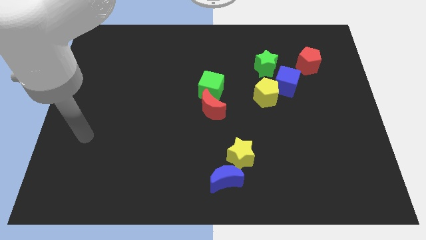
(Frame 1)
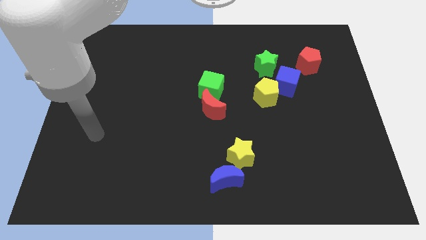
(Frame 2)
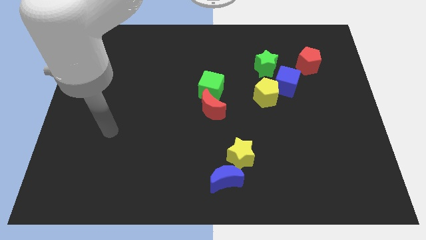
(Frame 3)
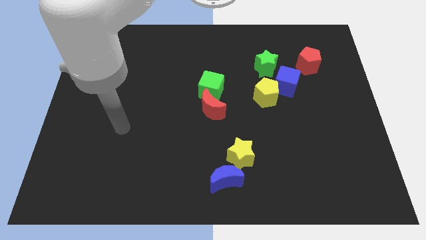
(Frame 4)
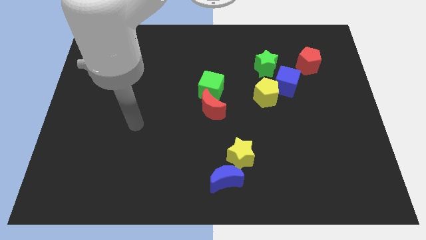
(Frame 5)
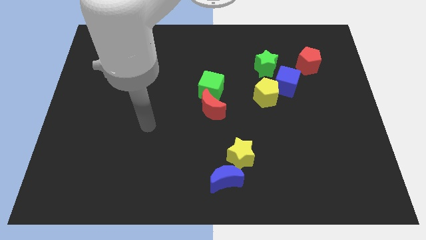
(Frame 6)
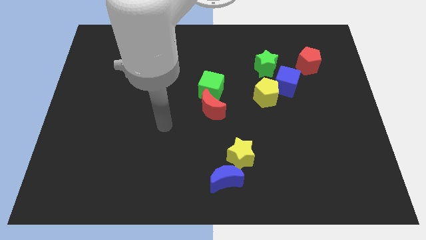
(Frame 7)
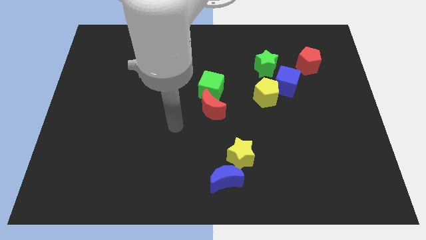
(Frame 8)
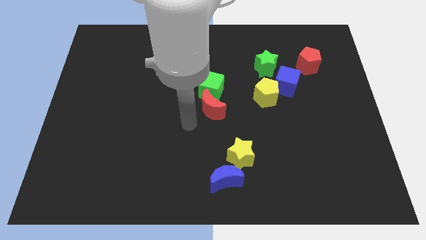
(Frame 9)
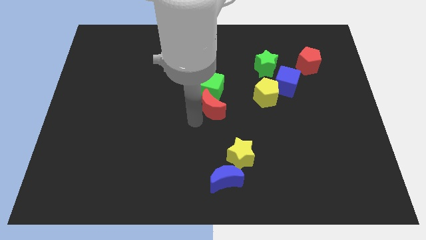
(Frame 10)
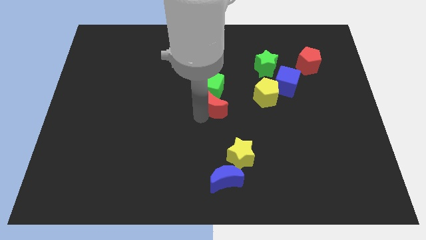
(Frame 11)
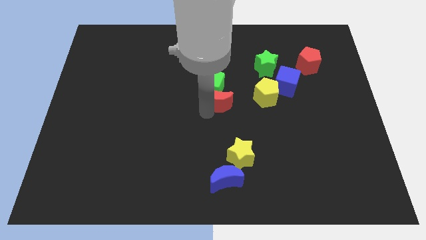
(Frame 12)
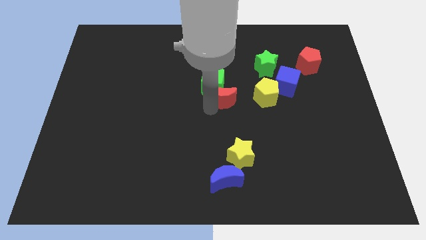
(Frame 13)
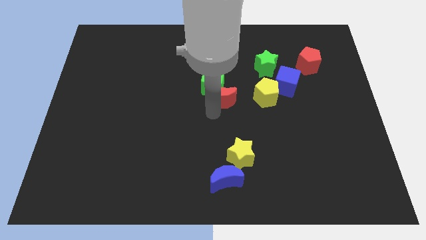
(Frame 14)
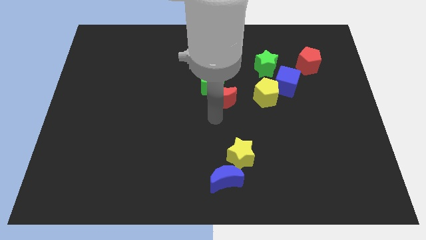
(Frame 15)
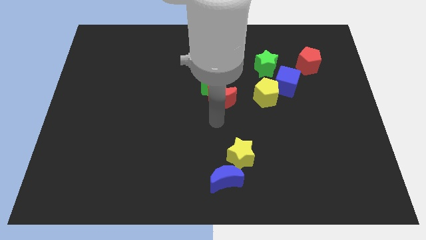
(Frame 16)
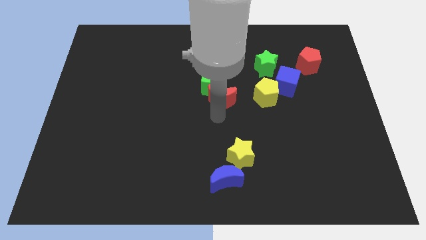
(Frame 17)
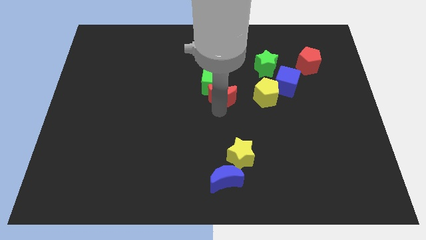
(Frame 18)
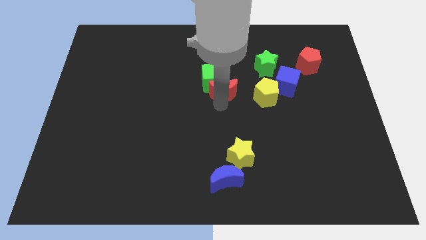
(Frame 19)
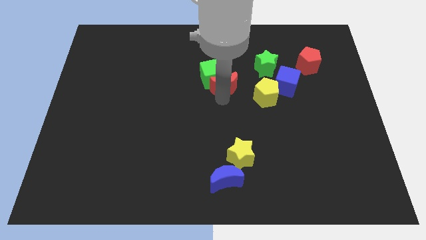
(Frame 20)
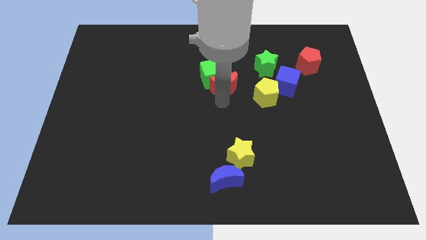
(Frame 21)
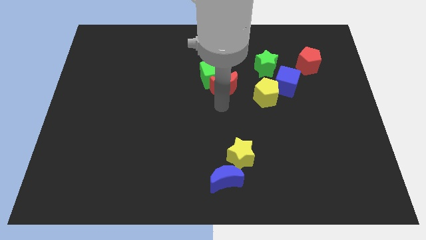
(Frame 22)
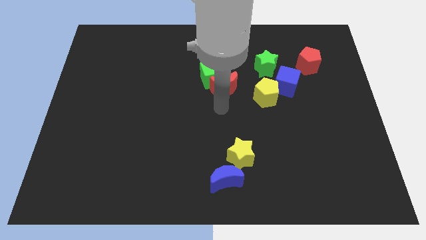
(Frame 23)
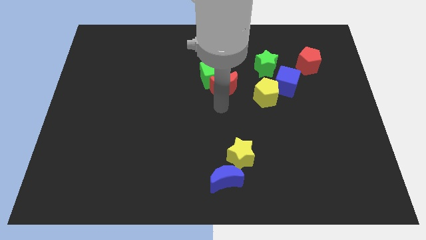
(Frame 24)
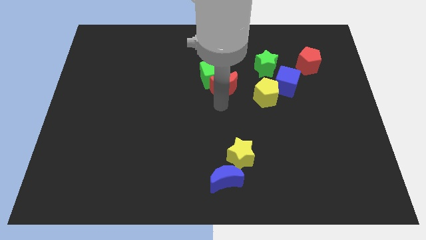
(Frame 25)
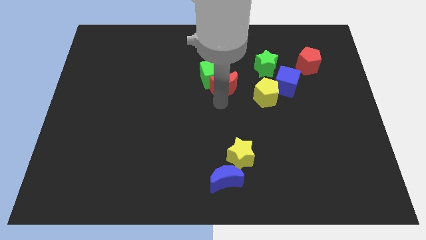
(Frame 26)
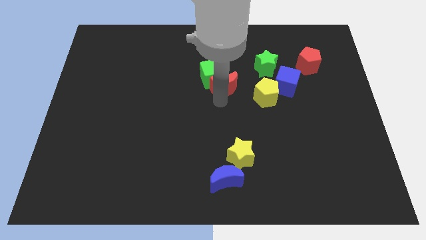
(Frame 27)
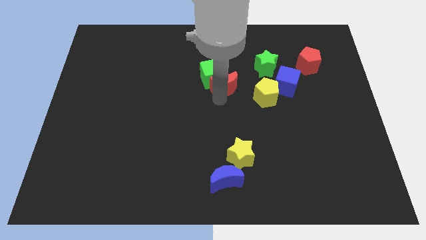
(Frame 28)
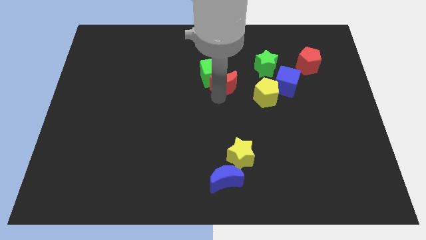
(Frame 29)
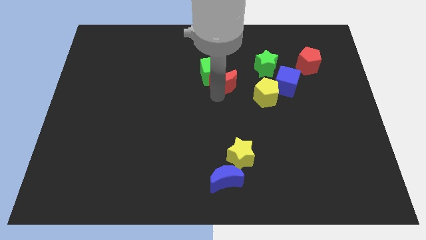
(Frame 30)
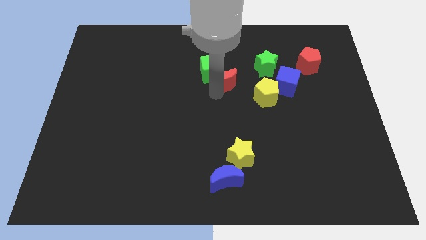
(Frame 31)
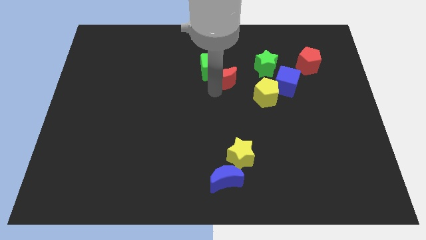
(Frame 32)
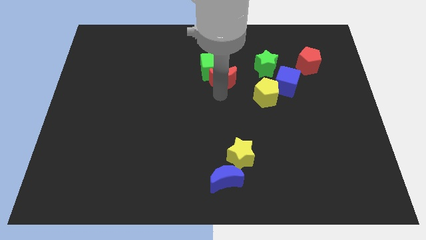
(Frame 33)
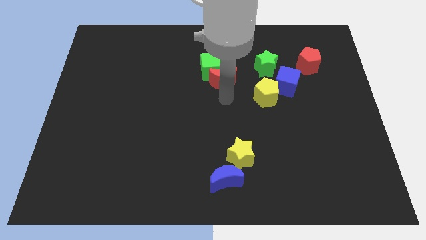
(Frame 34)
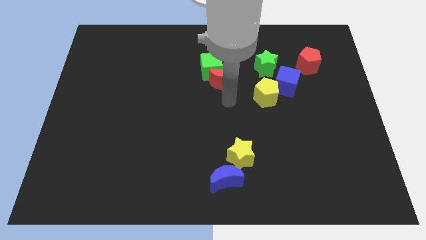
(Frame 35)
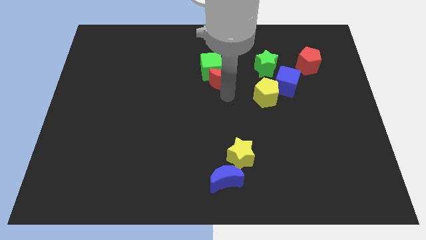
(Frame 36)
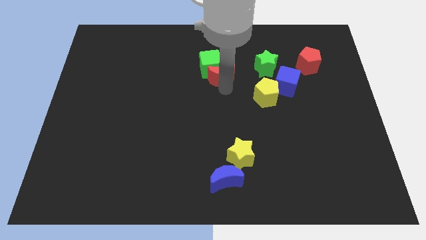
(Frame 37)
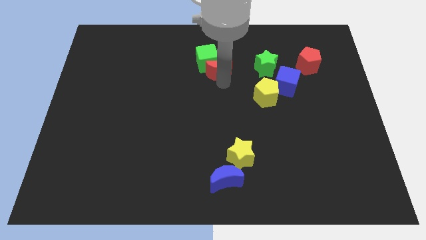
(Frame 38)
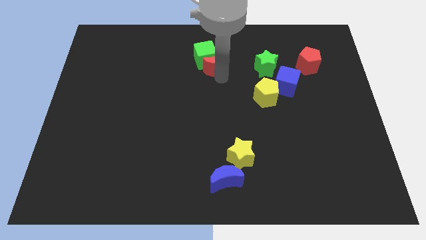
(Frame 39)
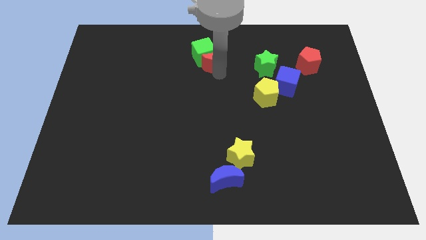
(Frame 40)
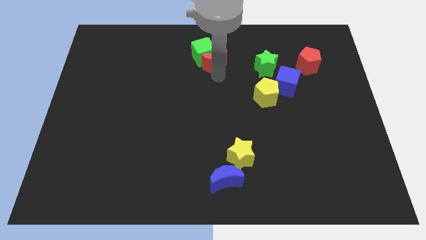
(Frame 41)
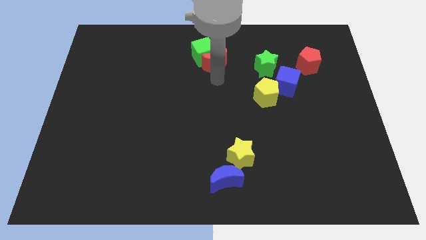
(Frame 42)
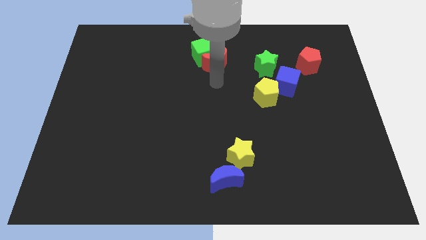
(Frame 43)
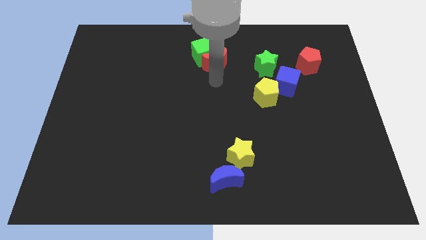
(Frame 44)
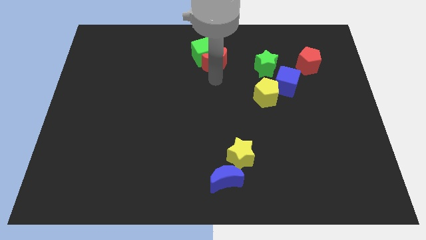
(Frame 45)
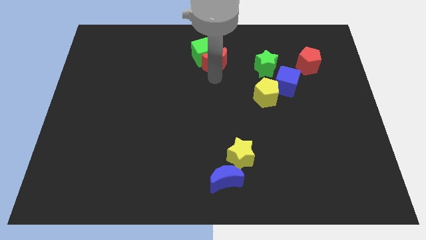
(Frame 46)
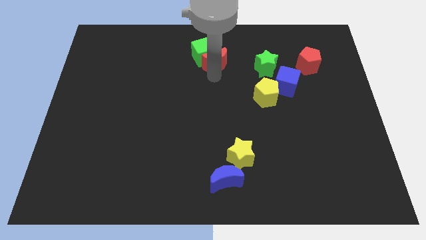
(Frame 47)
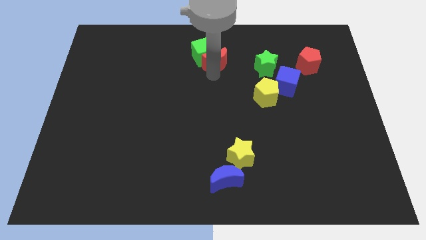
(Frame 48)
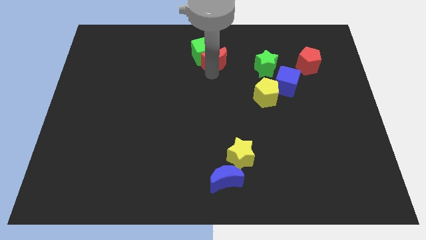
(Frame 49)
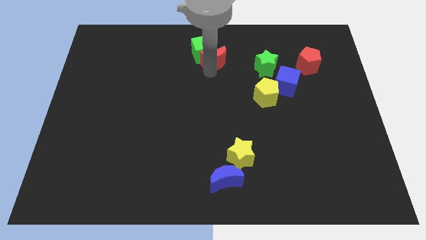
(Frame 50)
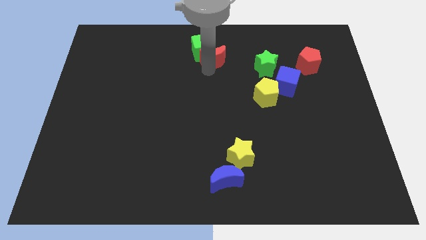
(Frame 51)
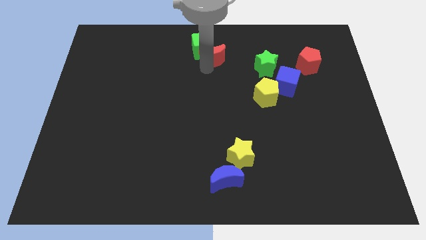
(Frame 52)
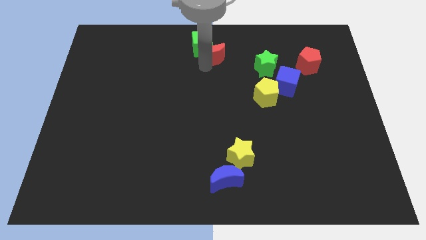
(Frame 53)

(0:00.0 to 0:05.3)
move the red moon to the towards your base

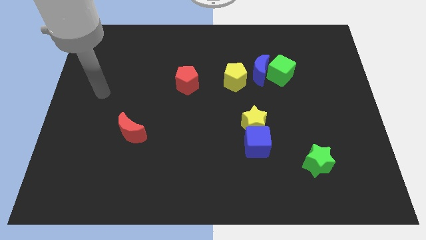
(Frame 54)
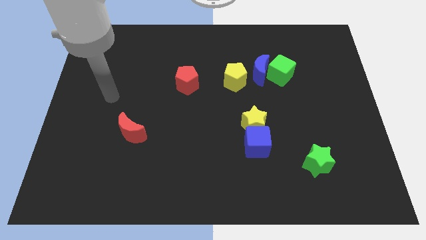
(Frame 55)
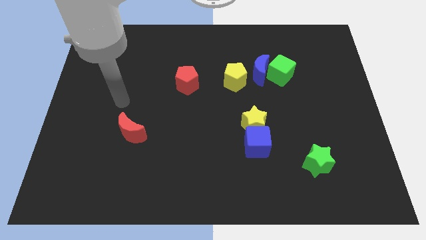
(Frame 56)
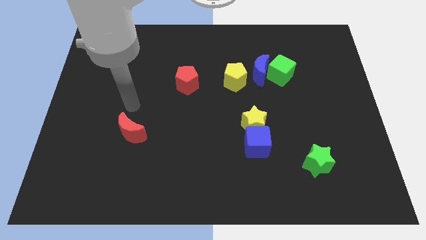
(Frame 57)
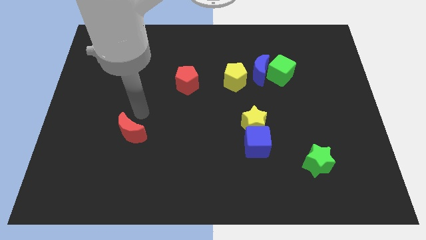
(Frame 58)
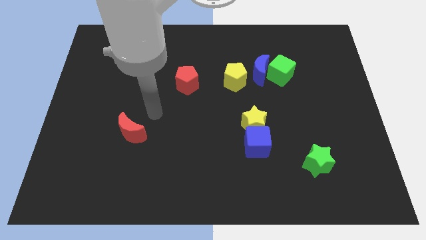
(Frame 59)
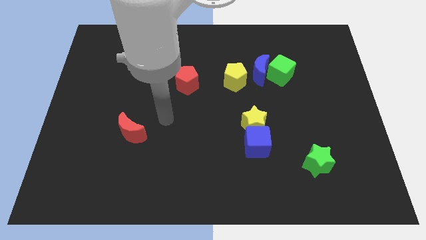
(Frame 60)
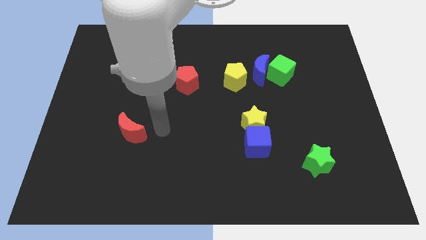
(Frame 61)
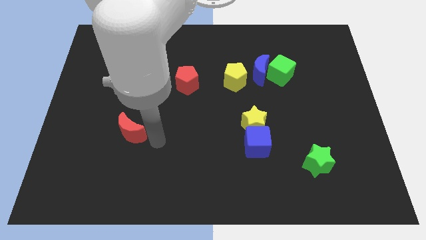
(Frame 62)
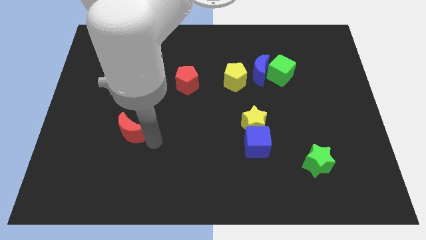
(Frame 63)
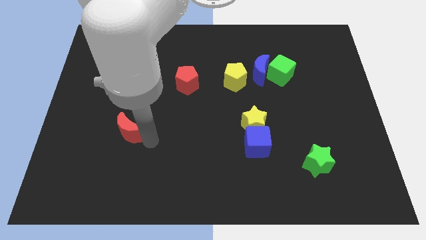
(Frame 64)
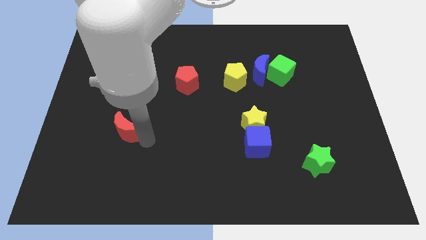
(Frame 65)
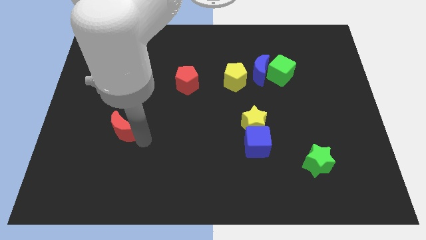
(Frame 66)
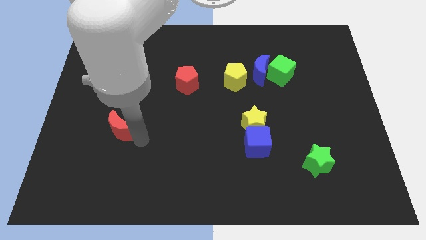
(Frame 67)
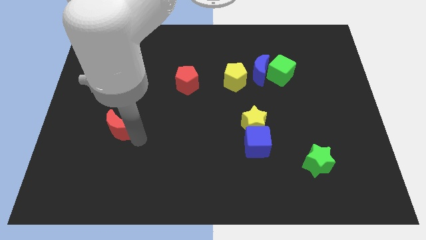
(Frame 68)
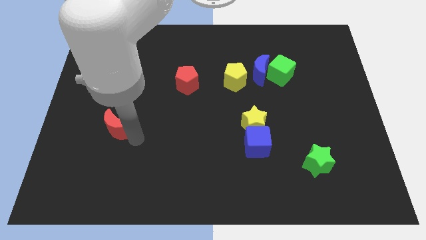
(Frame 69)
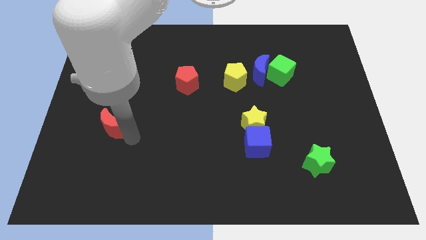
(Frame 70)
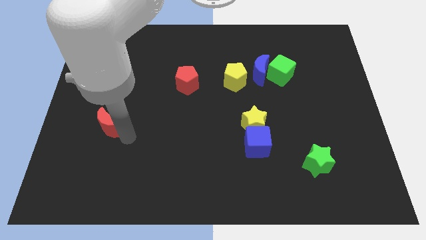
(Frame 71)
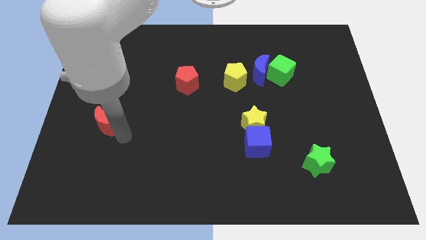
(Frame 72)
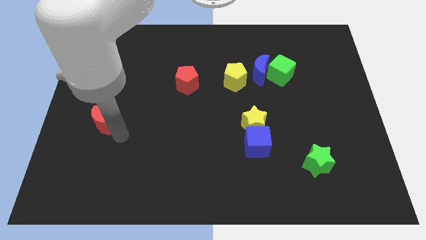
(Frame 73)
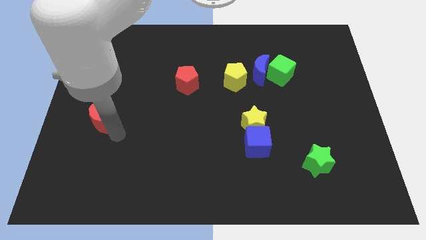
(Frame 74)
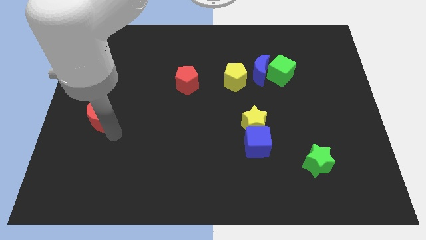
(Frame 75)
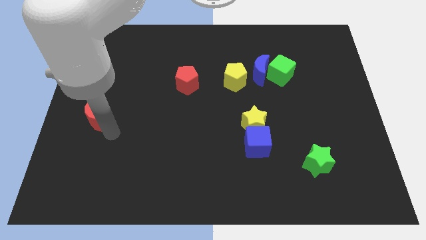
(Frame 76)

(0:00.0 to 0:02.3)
put the red moon to the center left
